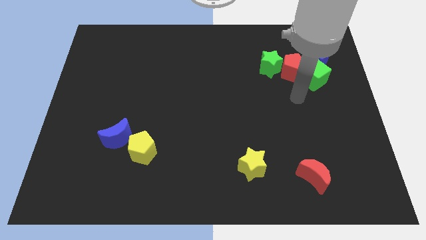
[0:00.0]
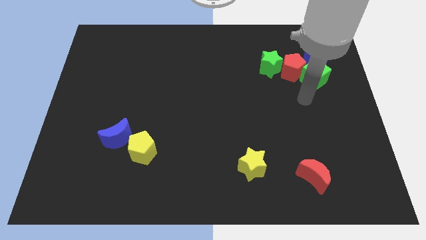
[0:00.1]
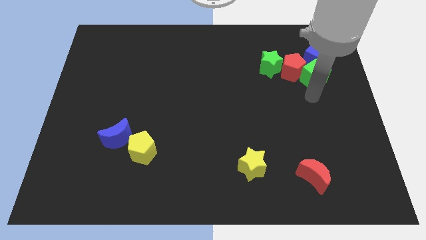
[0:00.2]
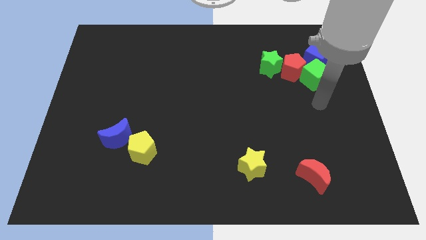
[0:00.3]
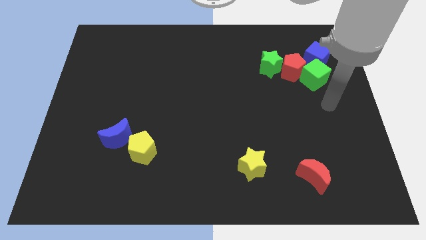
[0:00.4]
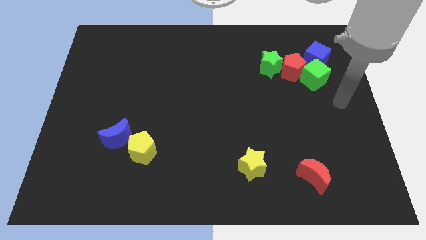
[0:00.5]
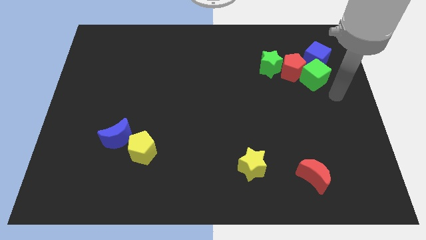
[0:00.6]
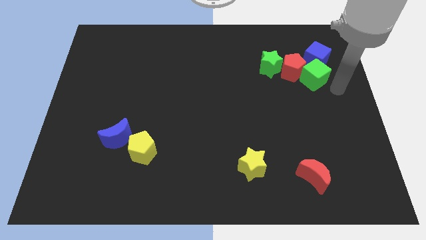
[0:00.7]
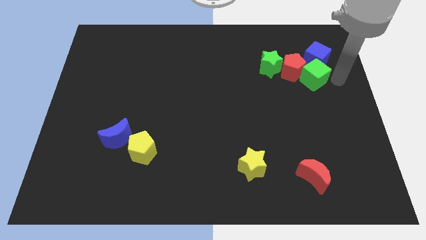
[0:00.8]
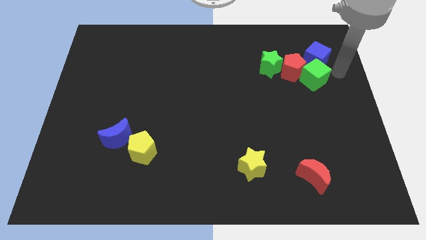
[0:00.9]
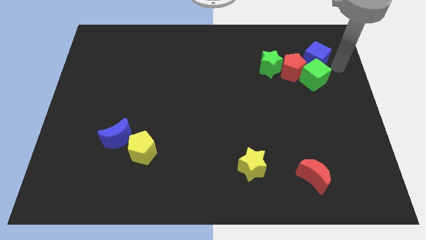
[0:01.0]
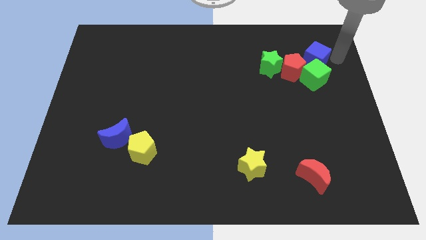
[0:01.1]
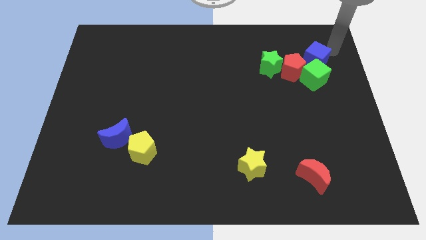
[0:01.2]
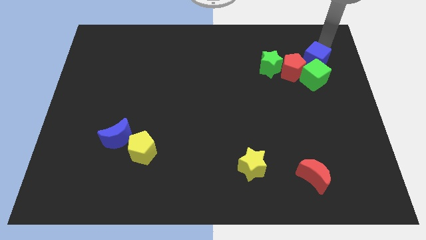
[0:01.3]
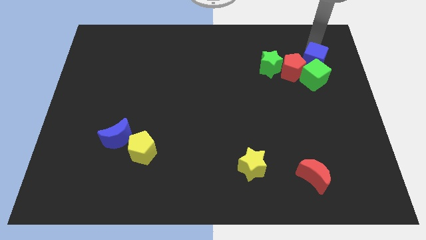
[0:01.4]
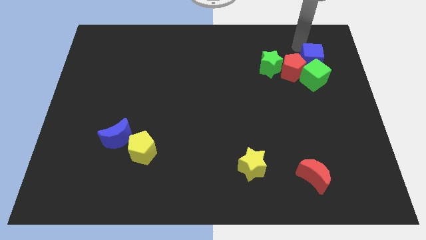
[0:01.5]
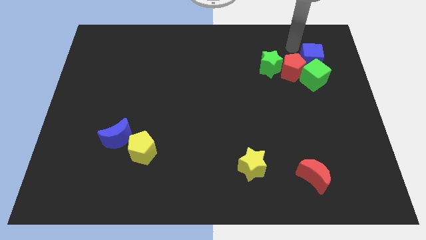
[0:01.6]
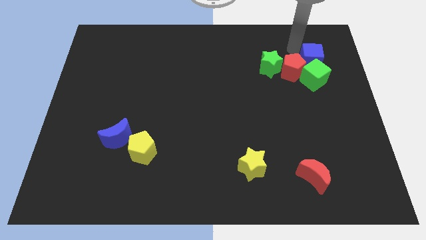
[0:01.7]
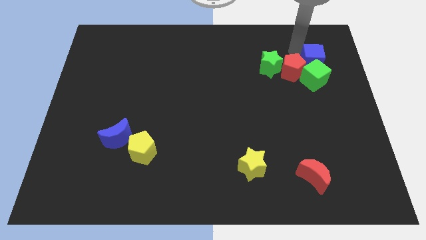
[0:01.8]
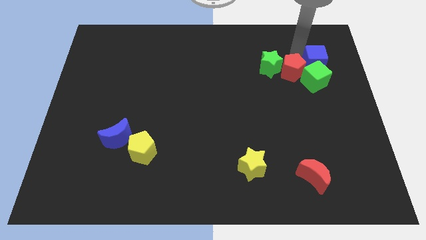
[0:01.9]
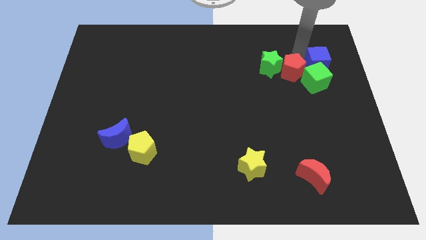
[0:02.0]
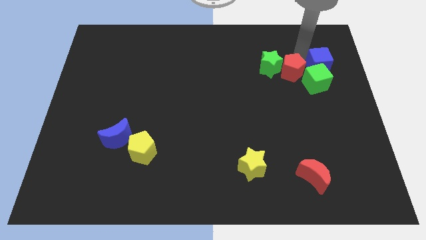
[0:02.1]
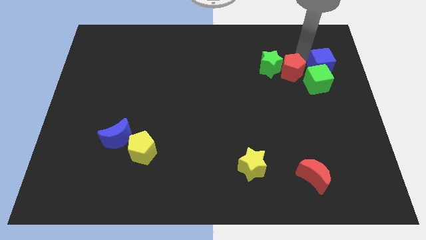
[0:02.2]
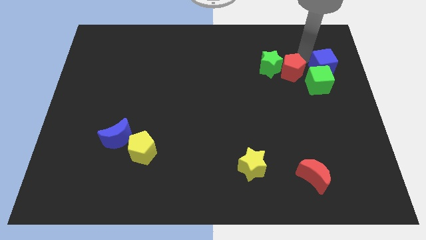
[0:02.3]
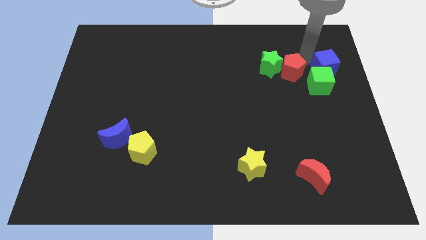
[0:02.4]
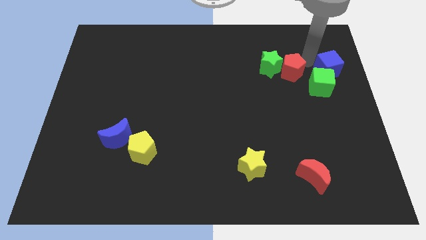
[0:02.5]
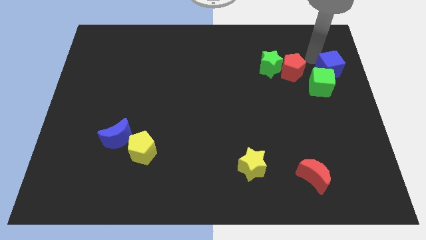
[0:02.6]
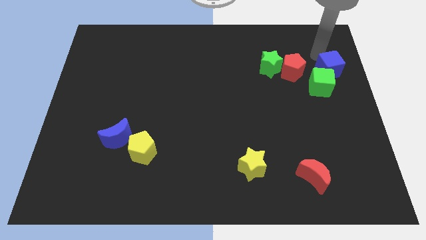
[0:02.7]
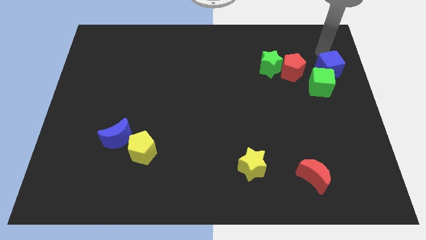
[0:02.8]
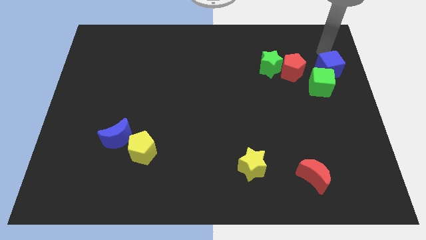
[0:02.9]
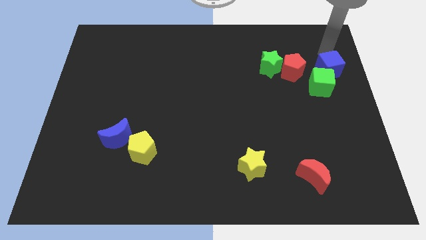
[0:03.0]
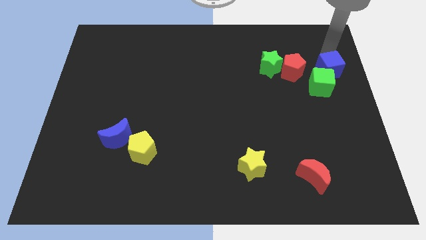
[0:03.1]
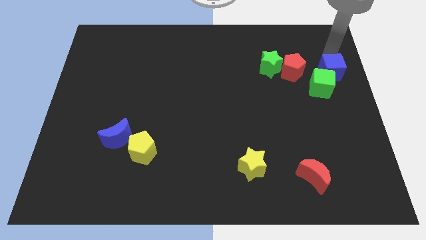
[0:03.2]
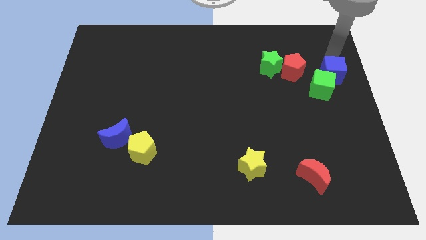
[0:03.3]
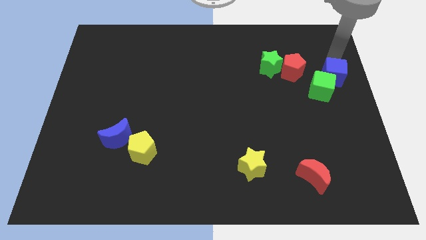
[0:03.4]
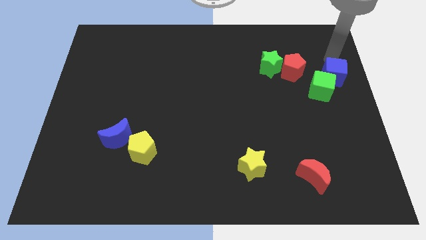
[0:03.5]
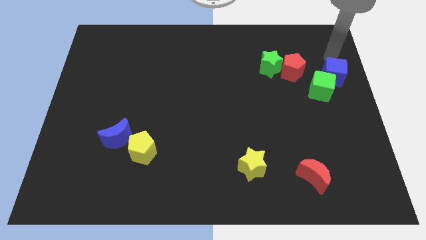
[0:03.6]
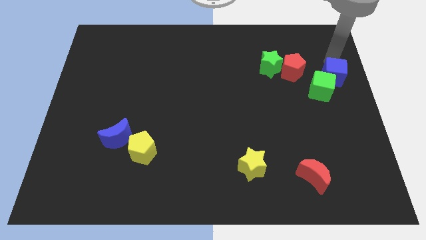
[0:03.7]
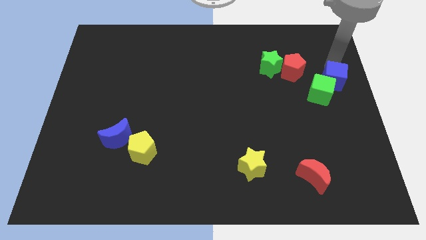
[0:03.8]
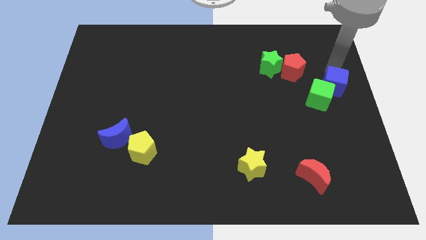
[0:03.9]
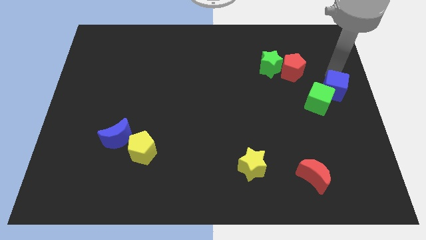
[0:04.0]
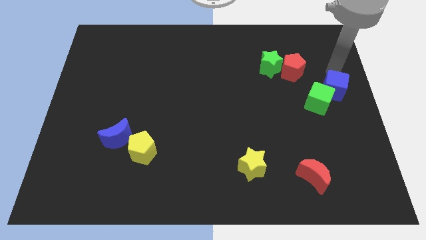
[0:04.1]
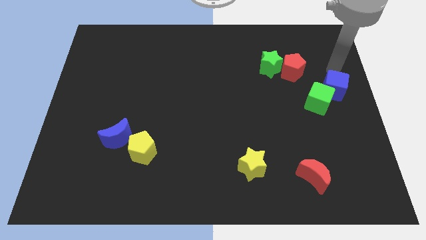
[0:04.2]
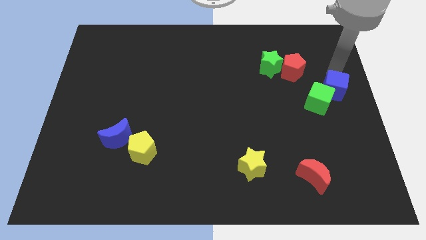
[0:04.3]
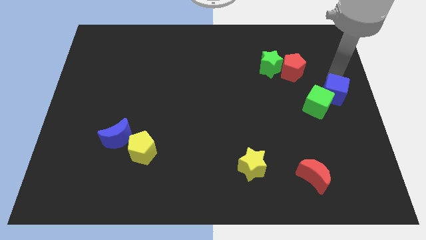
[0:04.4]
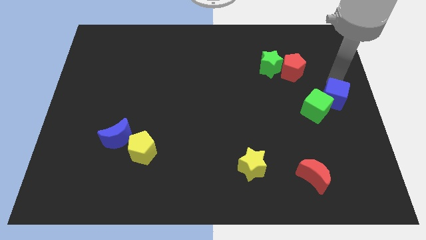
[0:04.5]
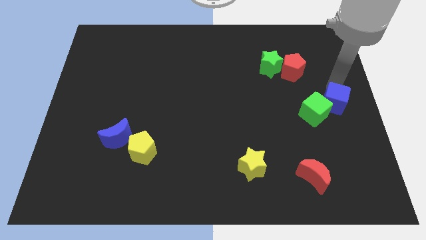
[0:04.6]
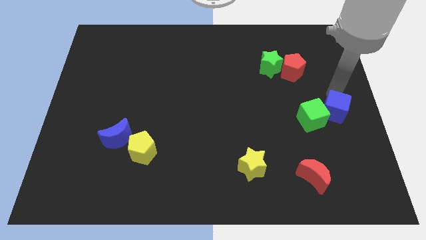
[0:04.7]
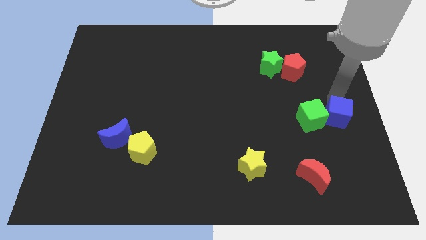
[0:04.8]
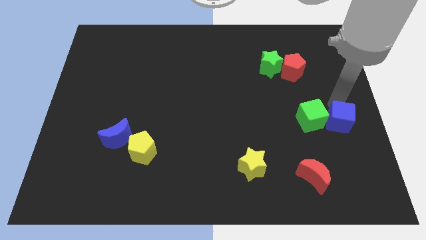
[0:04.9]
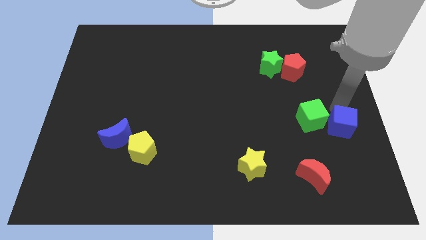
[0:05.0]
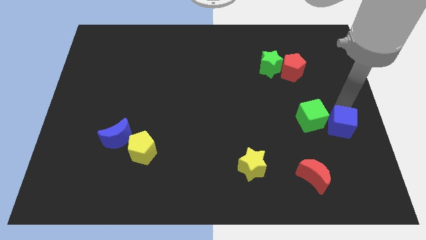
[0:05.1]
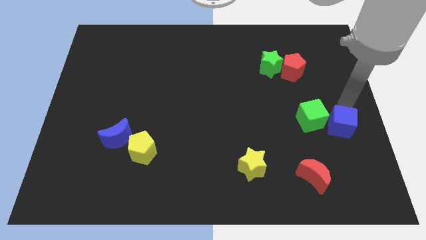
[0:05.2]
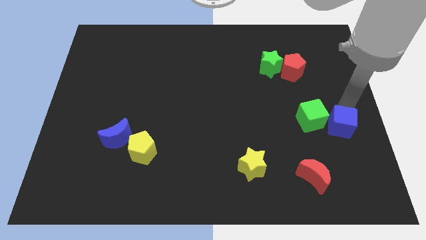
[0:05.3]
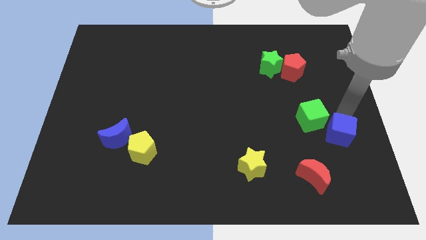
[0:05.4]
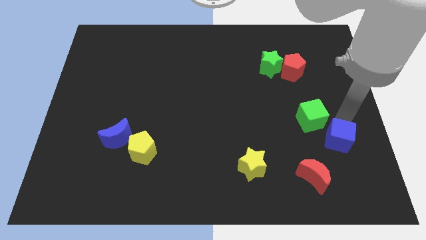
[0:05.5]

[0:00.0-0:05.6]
put the blue cube diagonally up and to the right of the red moon

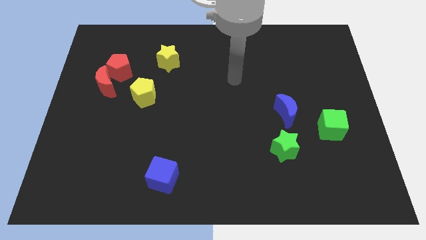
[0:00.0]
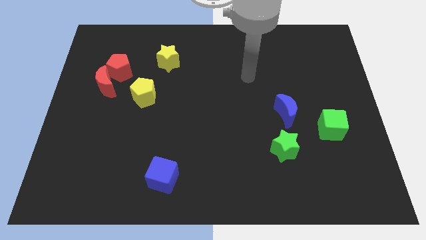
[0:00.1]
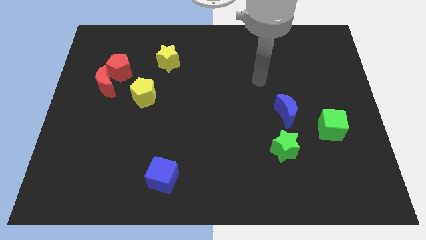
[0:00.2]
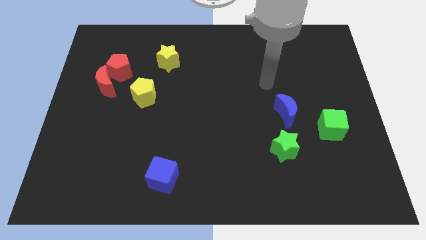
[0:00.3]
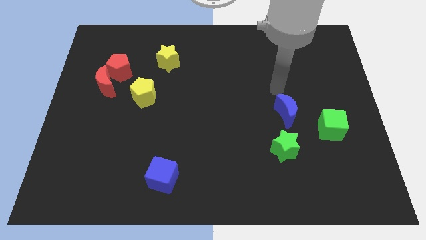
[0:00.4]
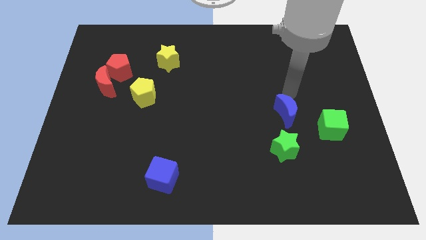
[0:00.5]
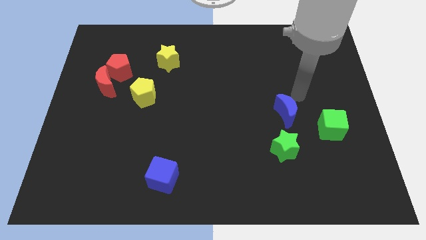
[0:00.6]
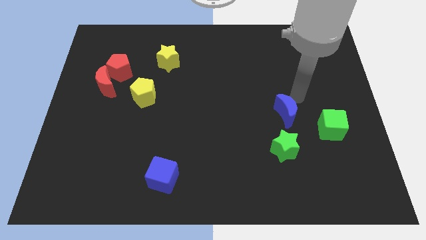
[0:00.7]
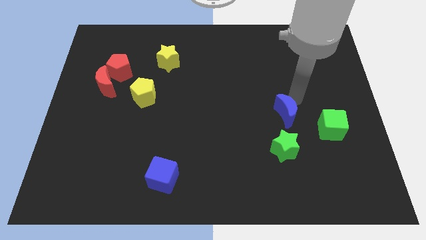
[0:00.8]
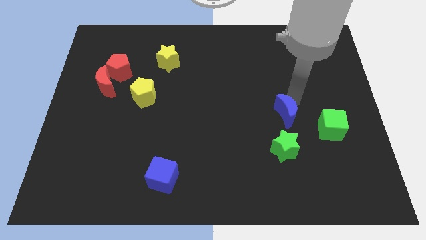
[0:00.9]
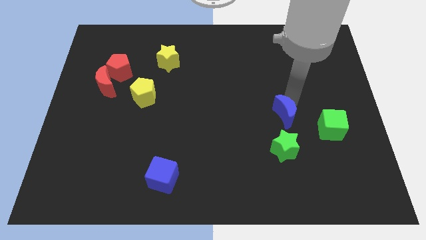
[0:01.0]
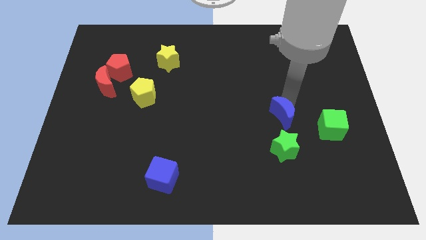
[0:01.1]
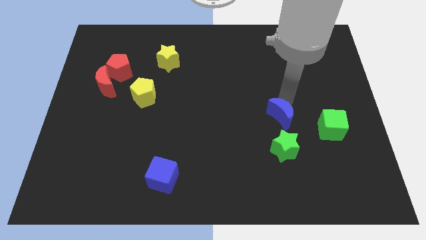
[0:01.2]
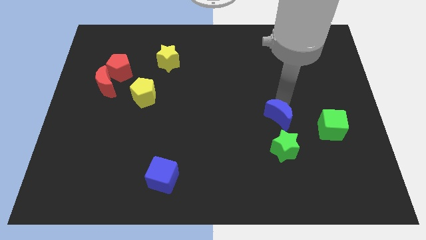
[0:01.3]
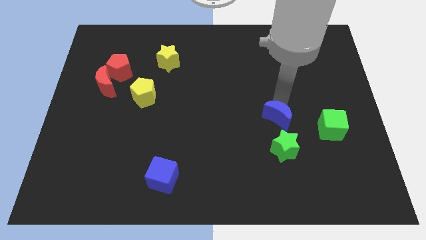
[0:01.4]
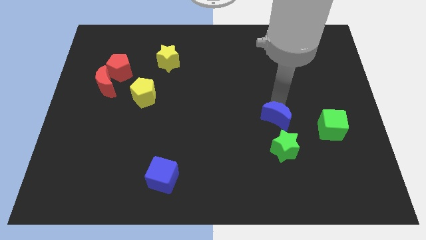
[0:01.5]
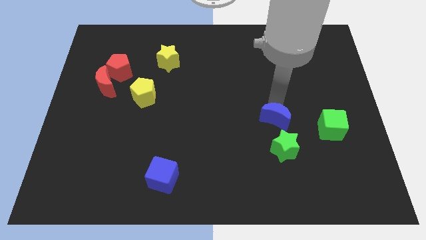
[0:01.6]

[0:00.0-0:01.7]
push the blue moon to the top left side of the green star

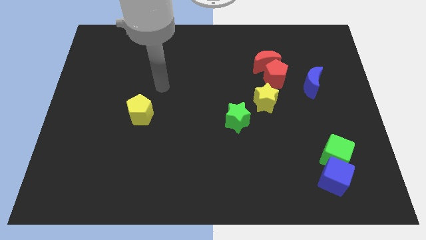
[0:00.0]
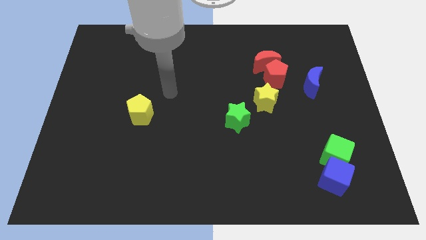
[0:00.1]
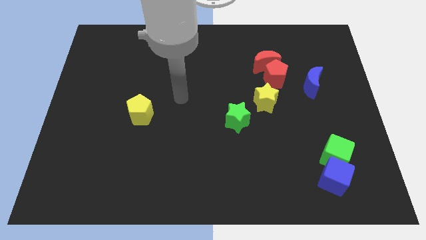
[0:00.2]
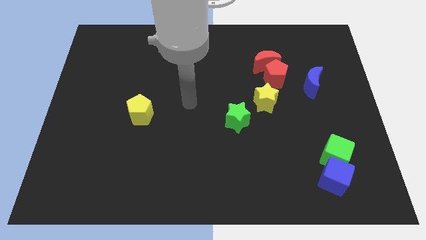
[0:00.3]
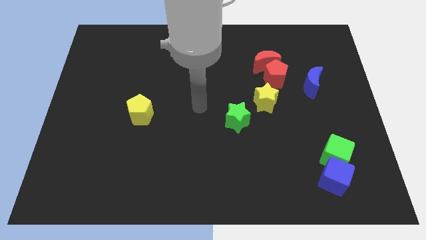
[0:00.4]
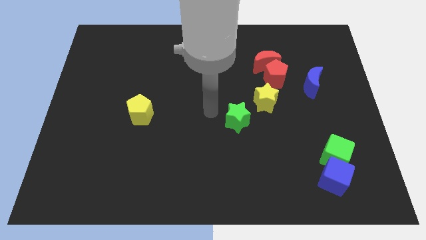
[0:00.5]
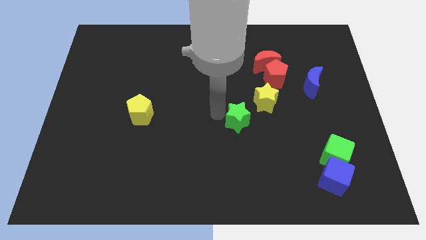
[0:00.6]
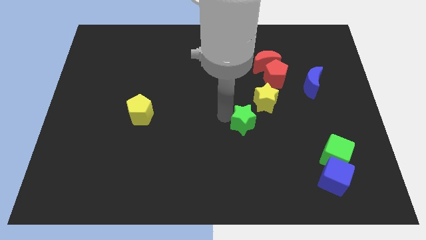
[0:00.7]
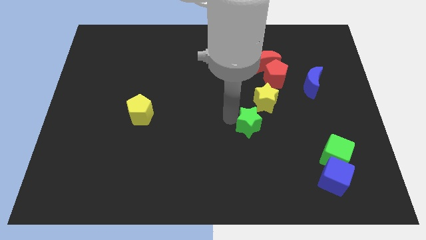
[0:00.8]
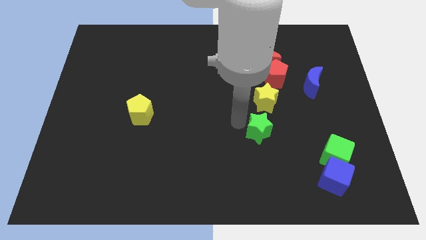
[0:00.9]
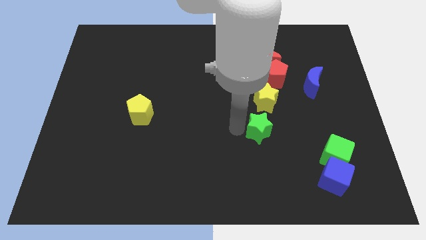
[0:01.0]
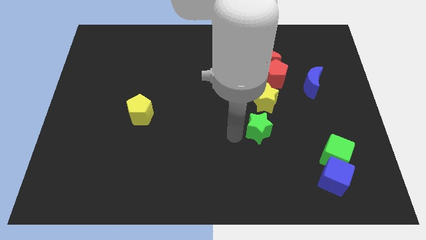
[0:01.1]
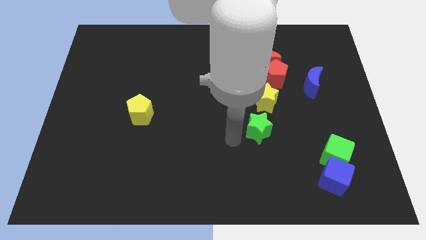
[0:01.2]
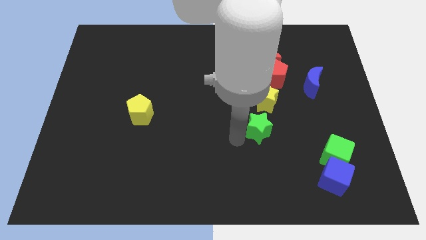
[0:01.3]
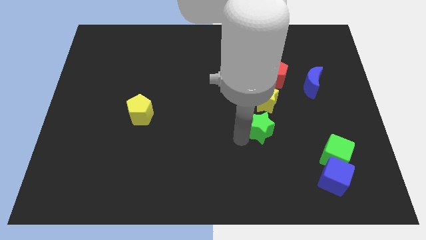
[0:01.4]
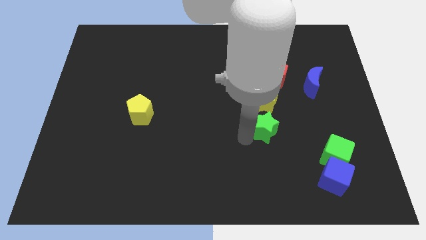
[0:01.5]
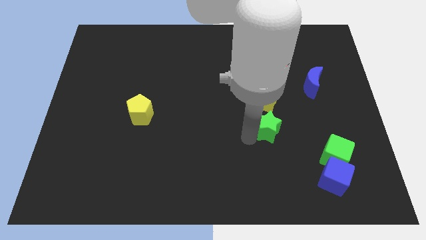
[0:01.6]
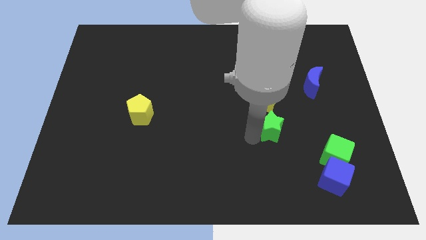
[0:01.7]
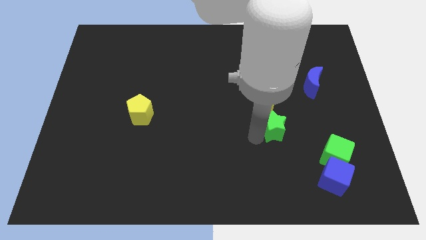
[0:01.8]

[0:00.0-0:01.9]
slide the green star diagonally down and to the right of the yellow star
